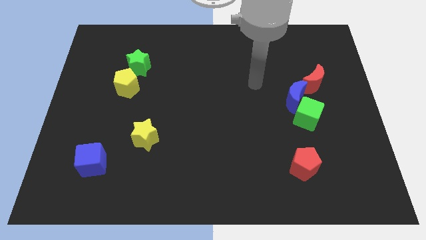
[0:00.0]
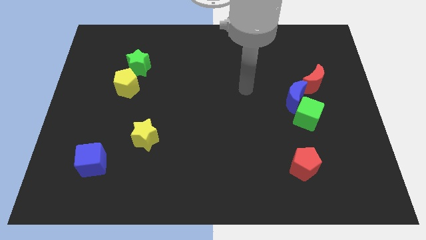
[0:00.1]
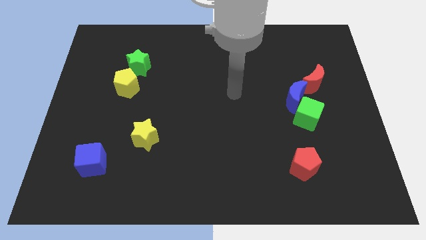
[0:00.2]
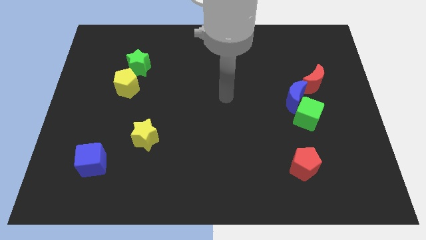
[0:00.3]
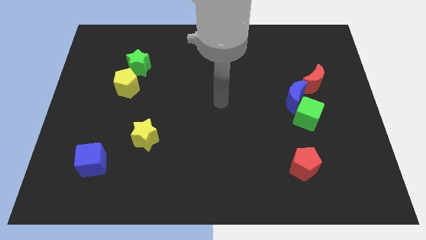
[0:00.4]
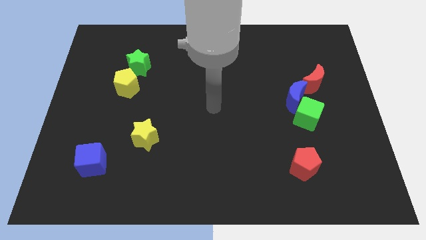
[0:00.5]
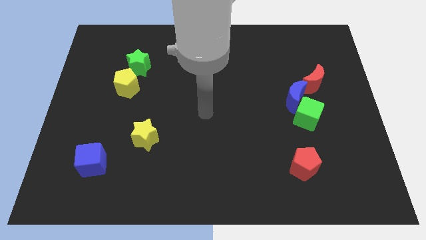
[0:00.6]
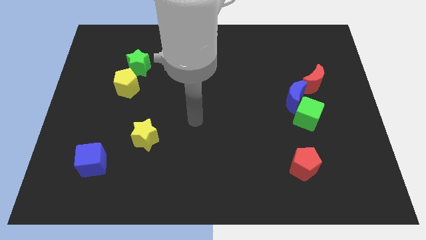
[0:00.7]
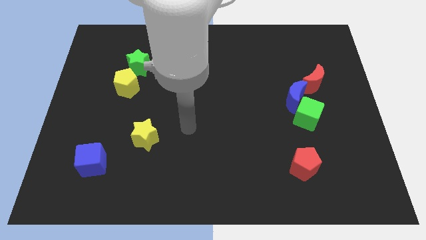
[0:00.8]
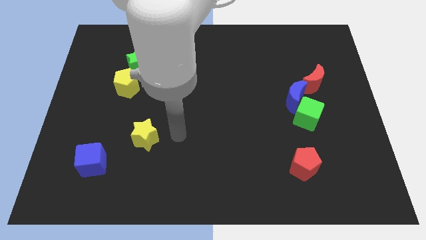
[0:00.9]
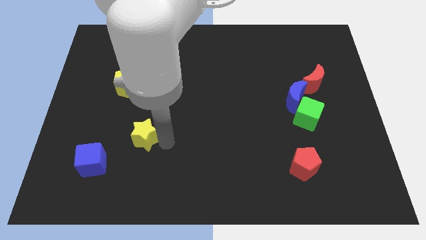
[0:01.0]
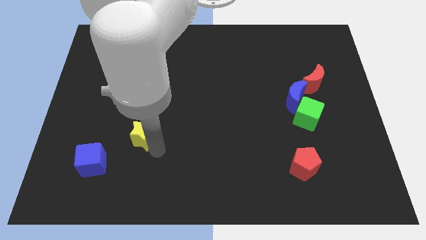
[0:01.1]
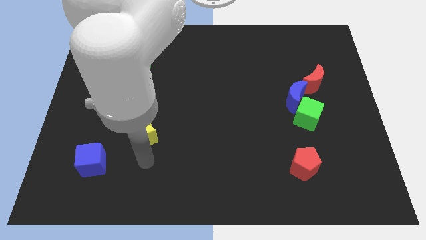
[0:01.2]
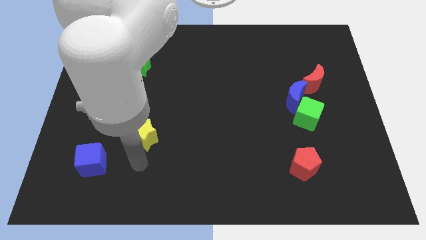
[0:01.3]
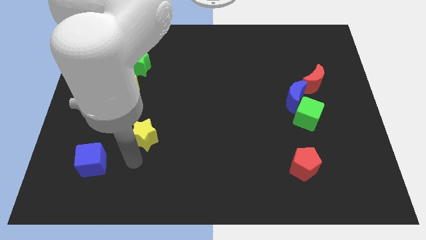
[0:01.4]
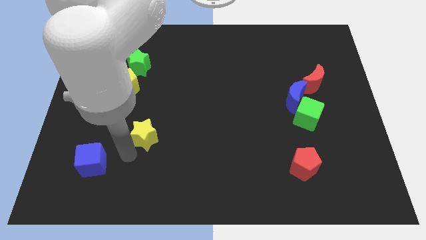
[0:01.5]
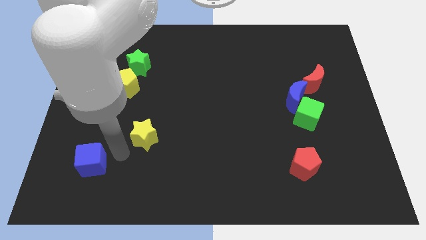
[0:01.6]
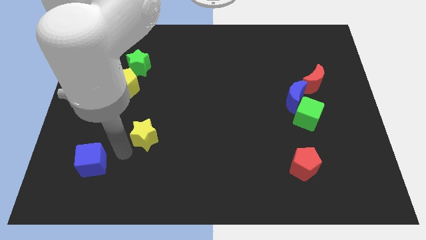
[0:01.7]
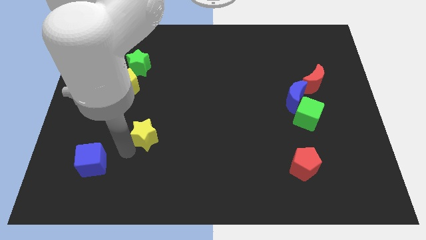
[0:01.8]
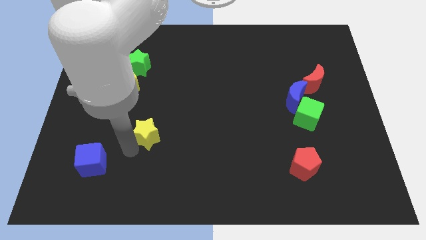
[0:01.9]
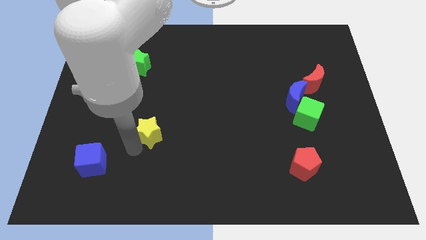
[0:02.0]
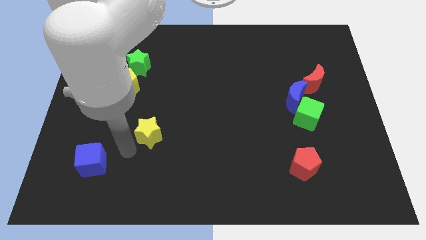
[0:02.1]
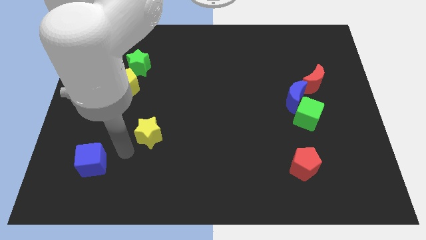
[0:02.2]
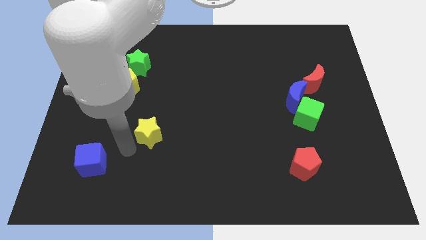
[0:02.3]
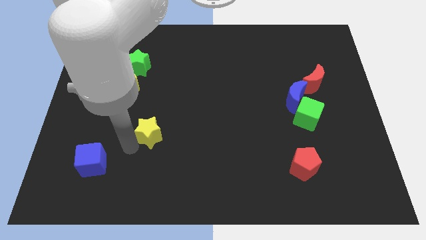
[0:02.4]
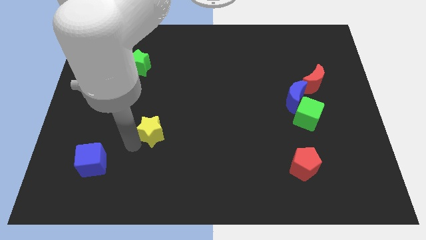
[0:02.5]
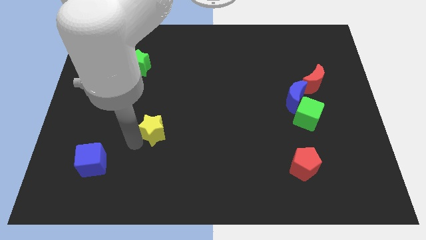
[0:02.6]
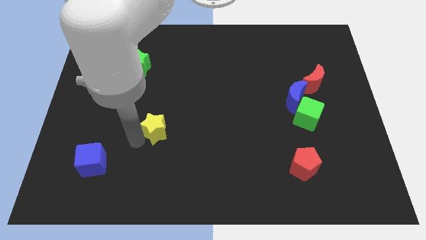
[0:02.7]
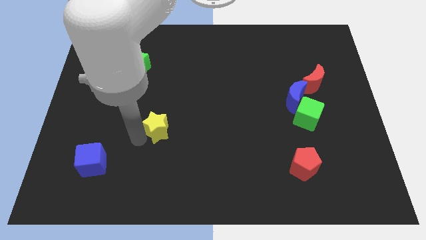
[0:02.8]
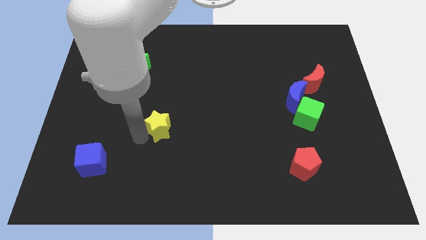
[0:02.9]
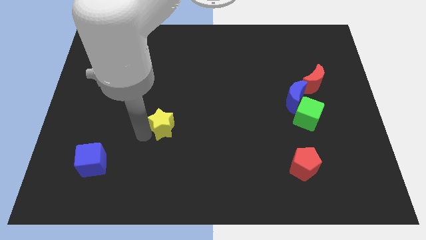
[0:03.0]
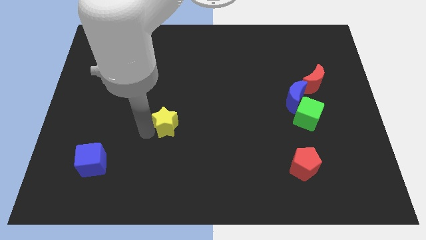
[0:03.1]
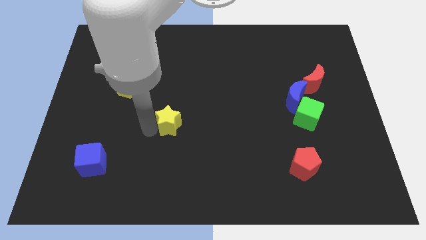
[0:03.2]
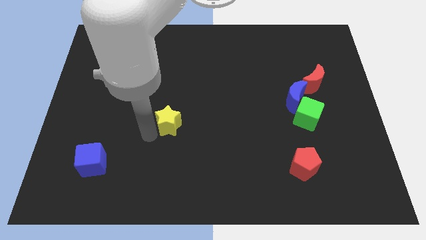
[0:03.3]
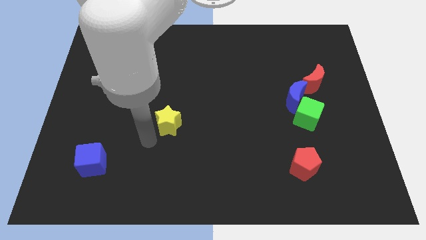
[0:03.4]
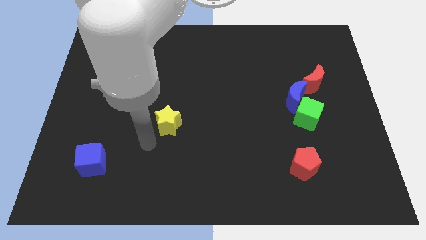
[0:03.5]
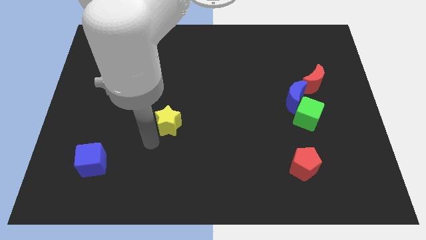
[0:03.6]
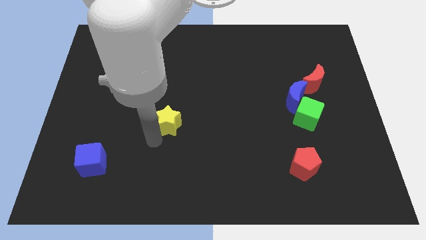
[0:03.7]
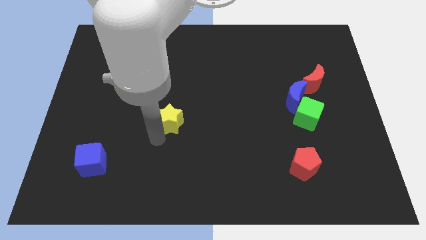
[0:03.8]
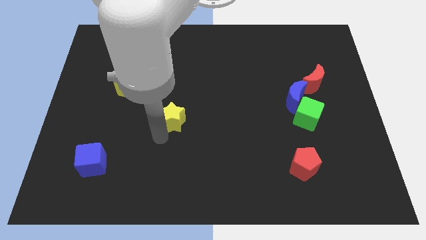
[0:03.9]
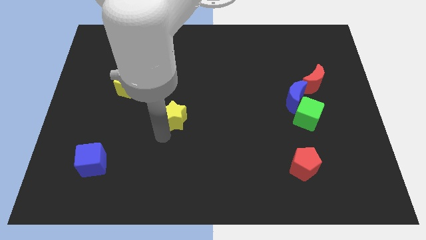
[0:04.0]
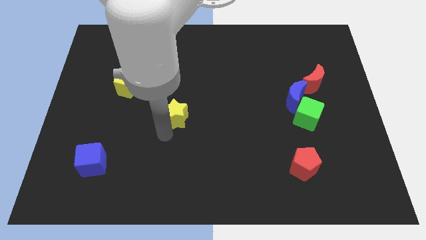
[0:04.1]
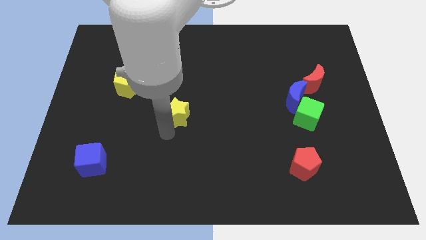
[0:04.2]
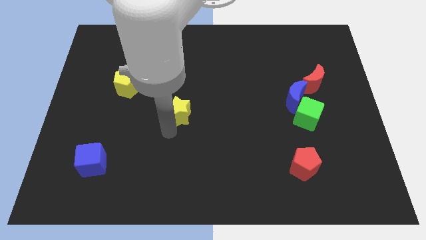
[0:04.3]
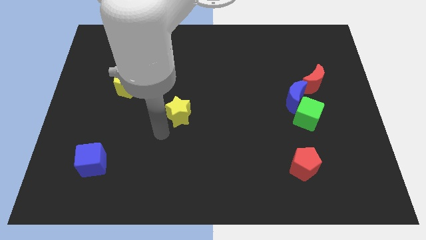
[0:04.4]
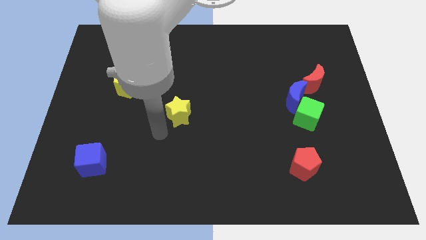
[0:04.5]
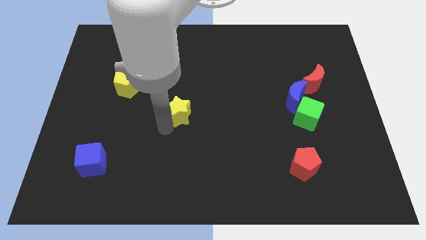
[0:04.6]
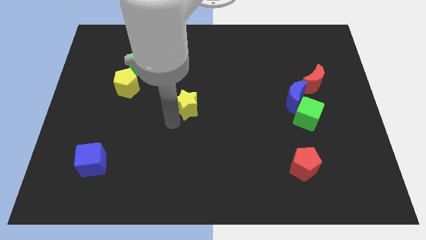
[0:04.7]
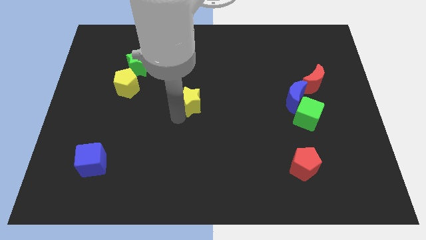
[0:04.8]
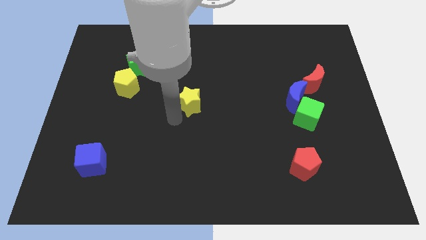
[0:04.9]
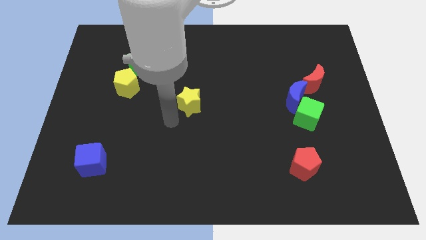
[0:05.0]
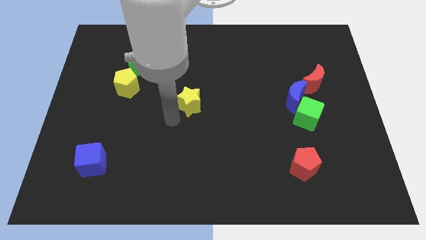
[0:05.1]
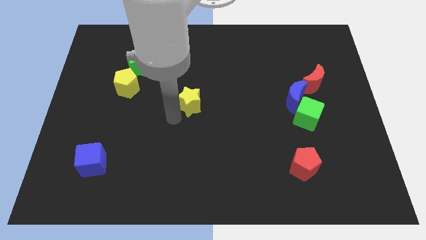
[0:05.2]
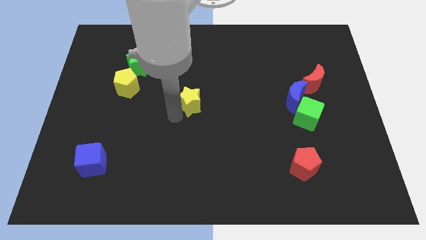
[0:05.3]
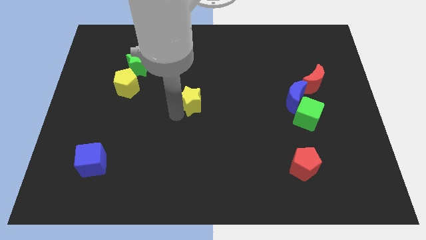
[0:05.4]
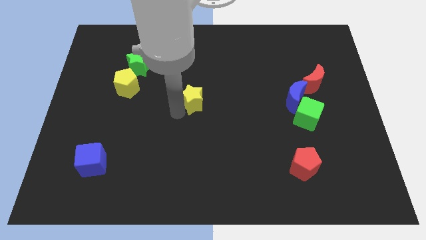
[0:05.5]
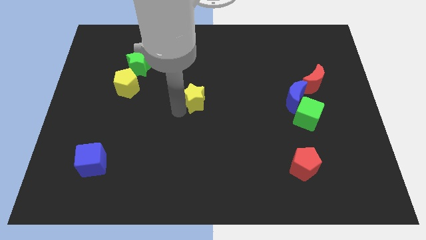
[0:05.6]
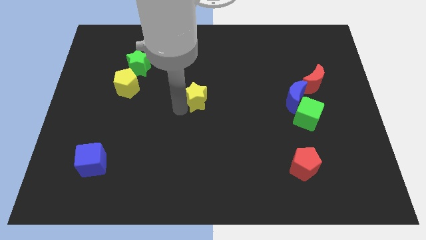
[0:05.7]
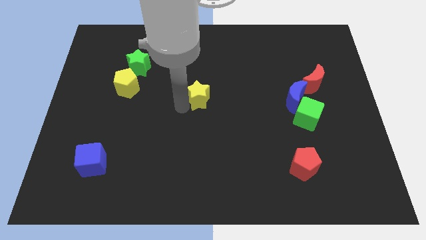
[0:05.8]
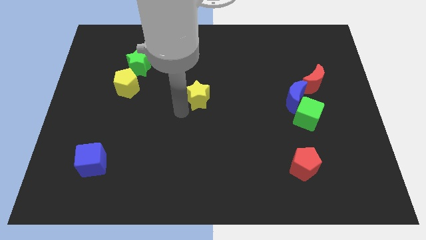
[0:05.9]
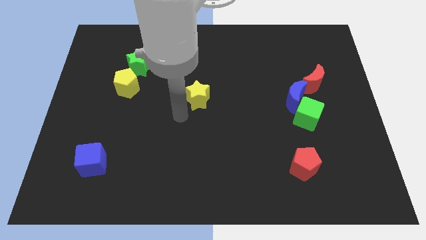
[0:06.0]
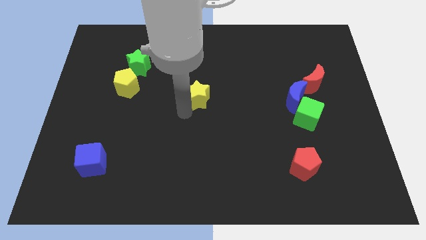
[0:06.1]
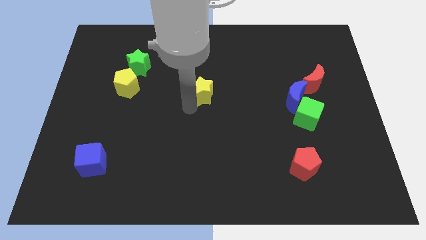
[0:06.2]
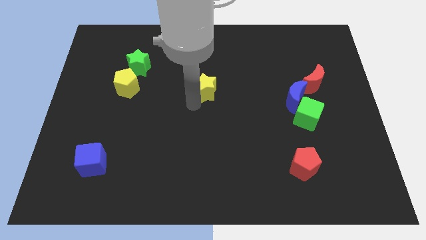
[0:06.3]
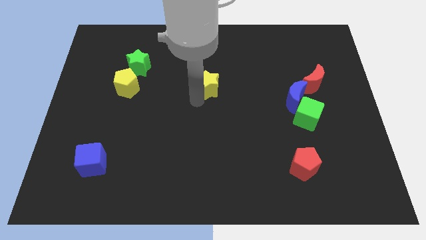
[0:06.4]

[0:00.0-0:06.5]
push the yellow star up and to the right diagonally

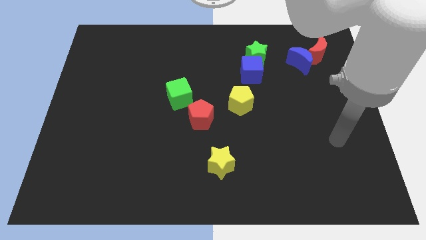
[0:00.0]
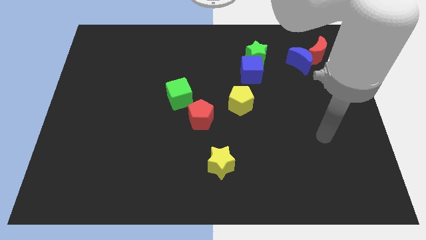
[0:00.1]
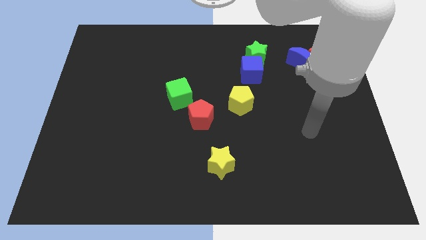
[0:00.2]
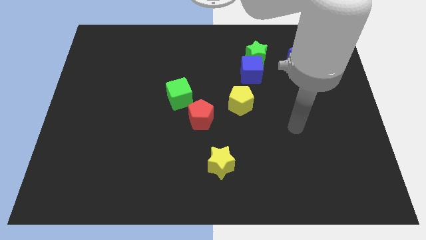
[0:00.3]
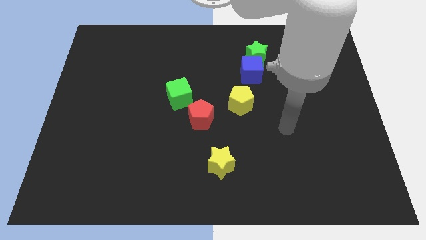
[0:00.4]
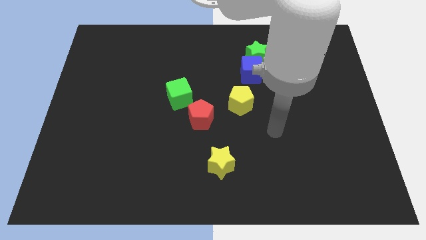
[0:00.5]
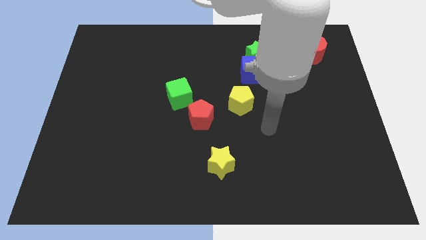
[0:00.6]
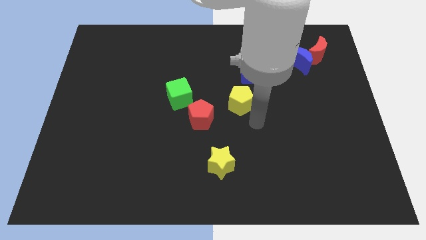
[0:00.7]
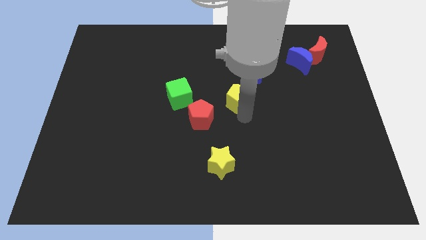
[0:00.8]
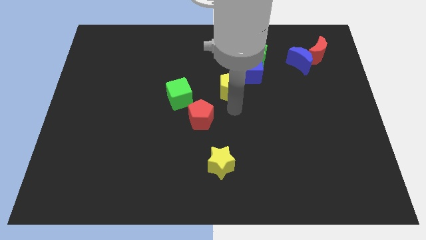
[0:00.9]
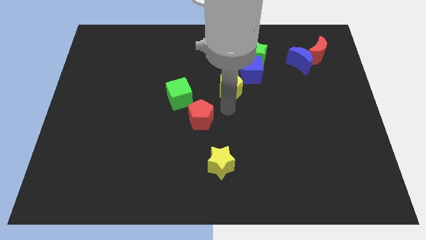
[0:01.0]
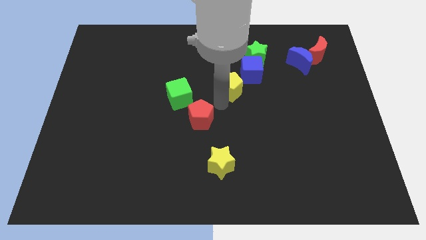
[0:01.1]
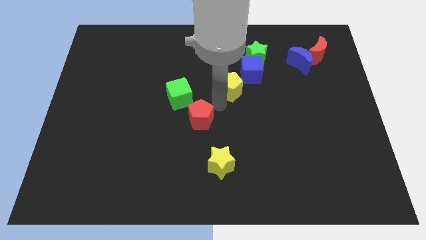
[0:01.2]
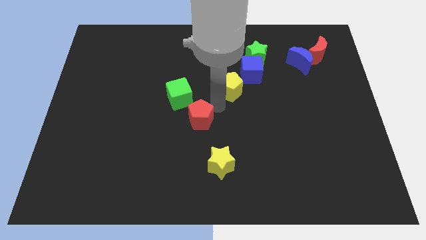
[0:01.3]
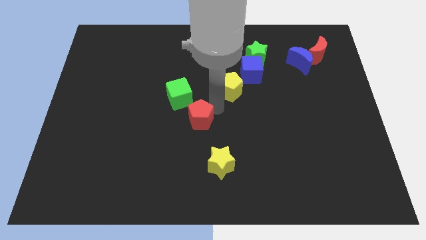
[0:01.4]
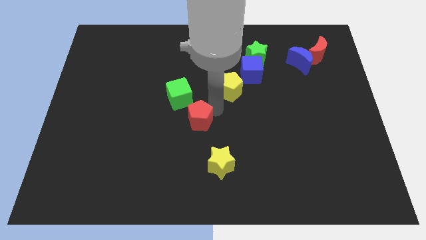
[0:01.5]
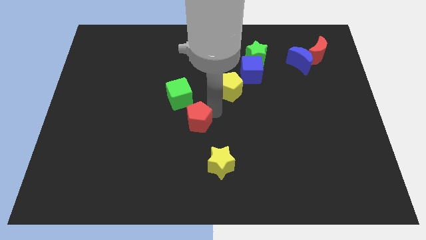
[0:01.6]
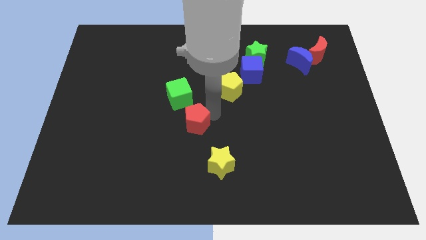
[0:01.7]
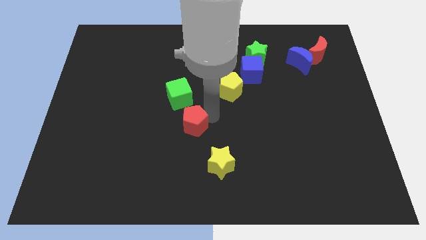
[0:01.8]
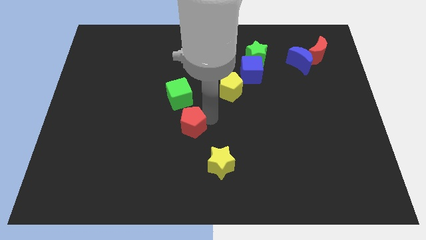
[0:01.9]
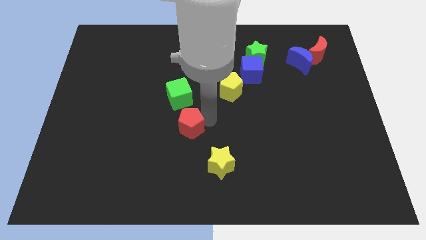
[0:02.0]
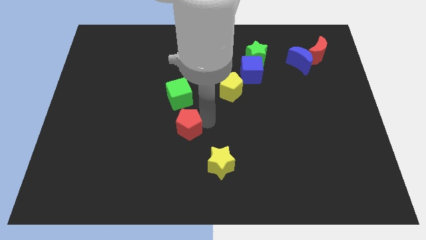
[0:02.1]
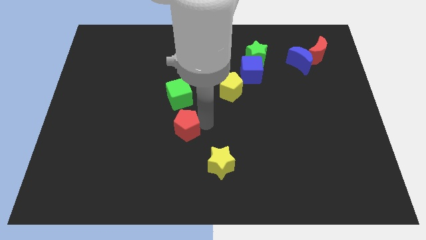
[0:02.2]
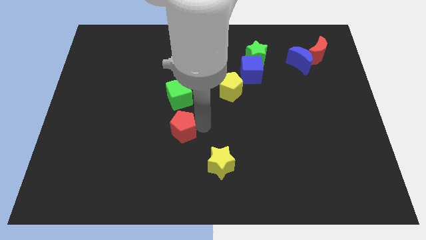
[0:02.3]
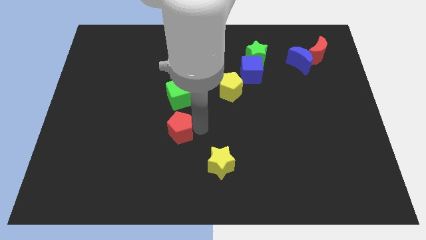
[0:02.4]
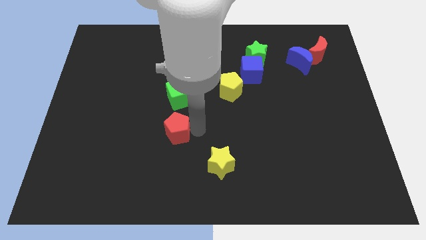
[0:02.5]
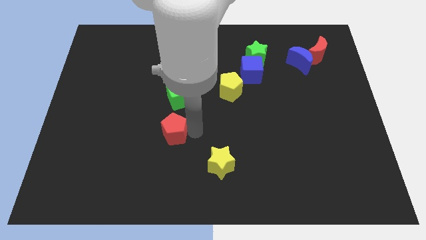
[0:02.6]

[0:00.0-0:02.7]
slightly move the red pentagon downwards and to the left
